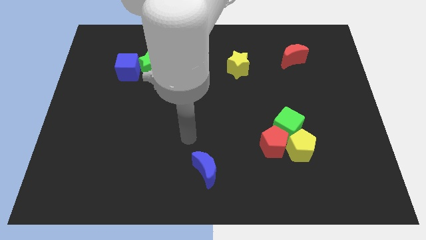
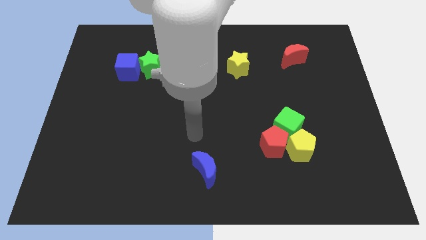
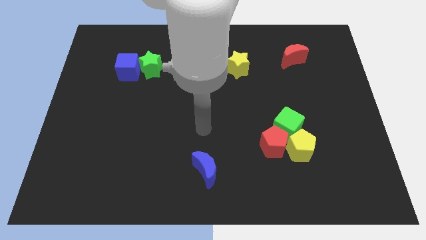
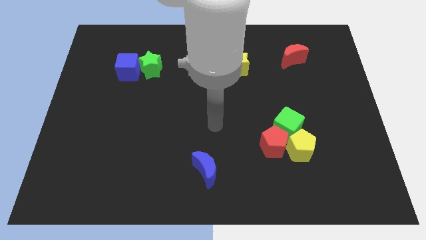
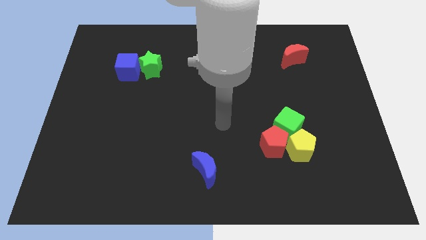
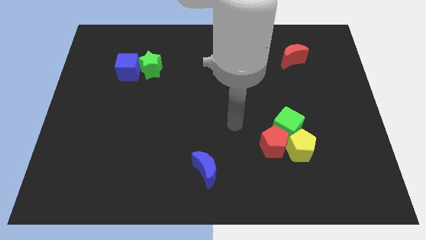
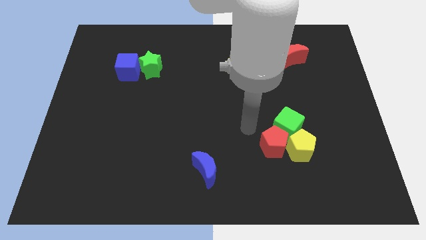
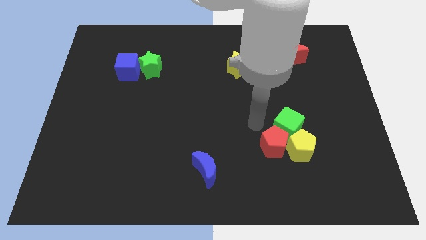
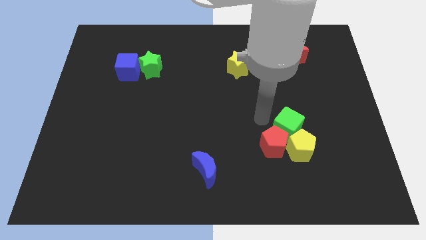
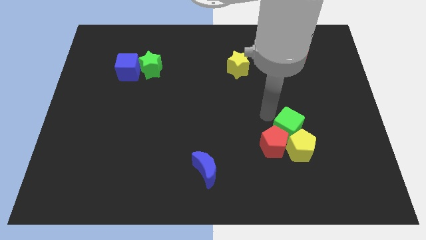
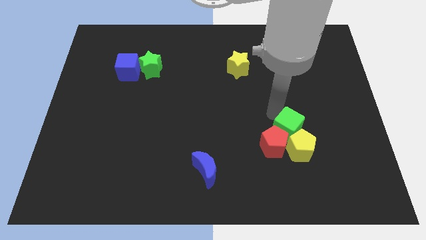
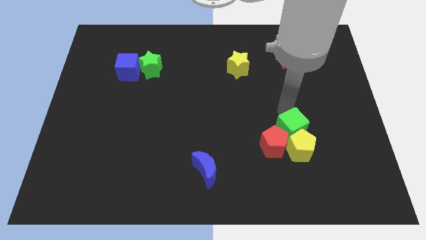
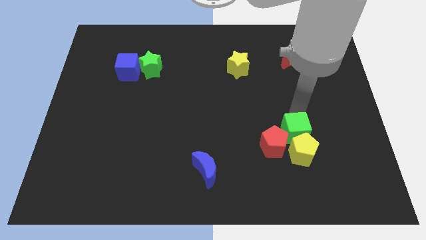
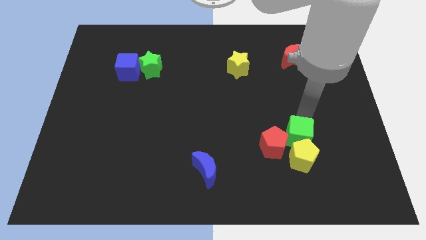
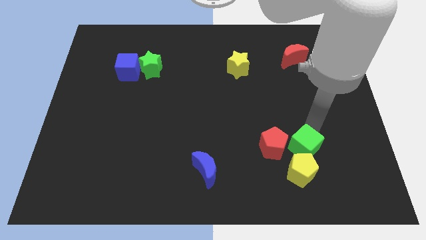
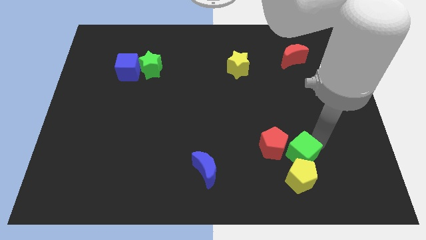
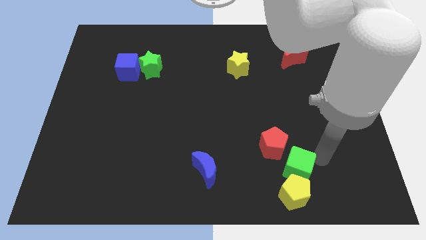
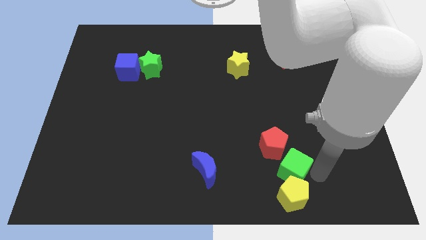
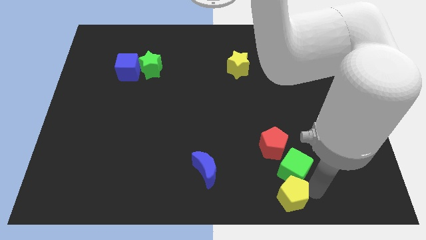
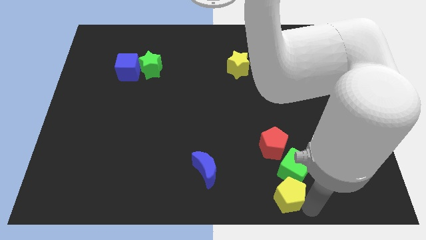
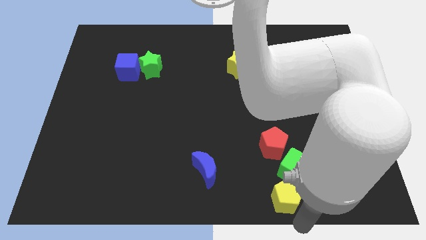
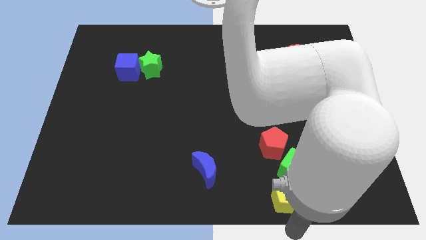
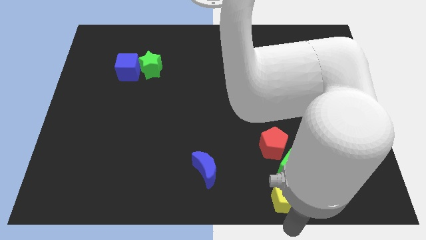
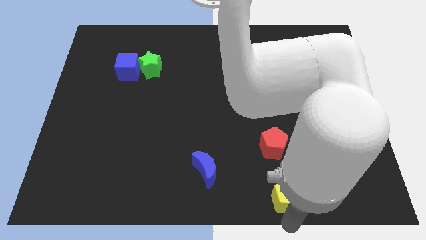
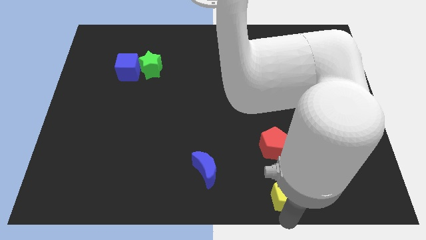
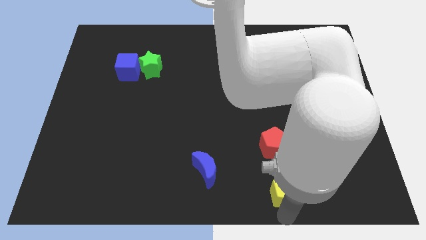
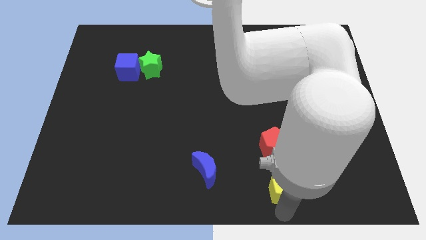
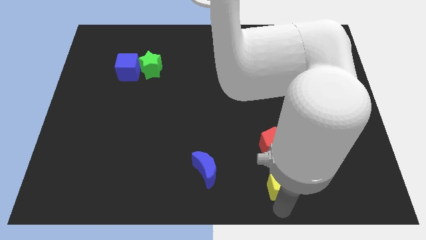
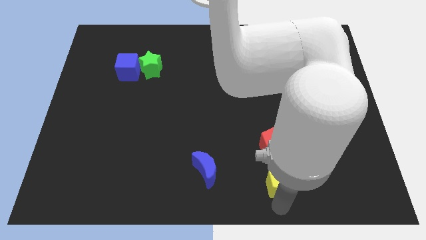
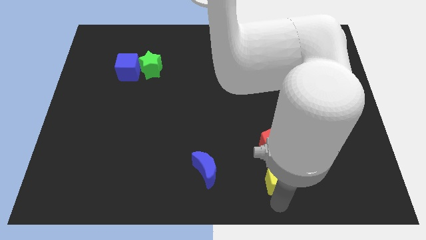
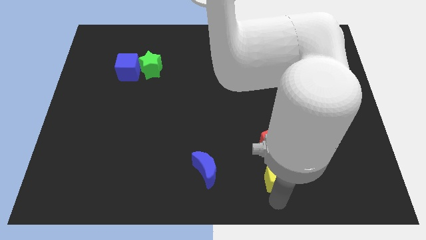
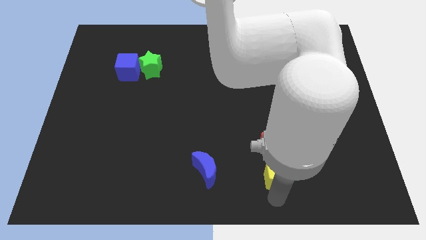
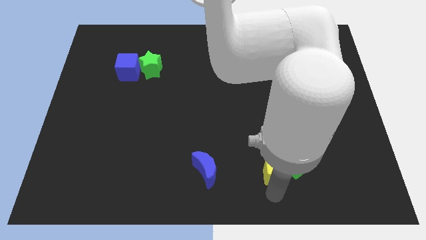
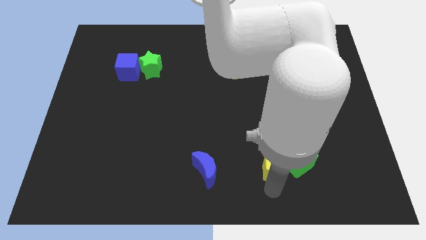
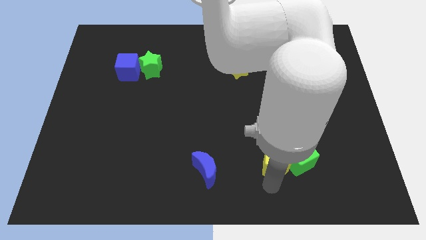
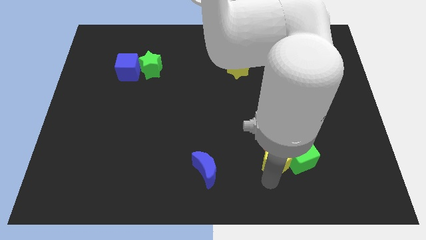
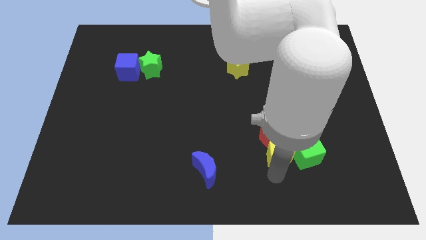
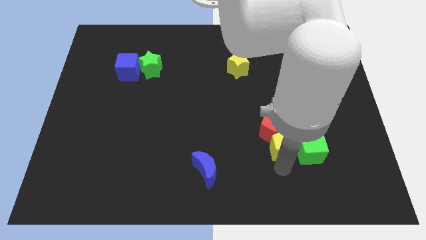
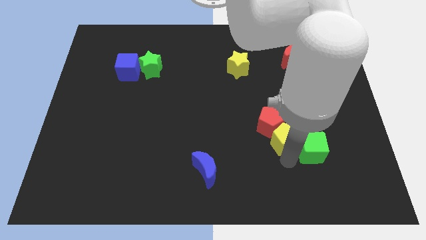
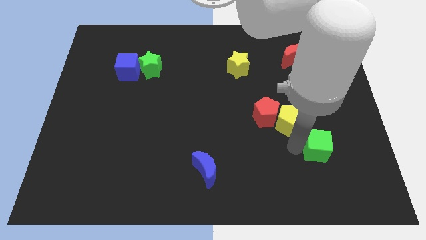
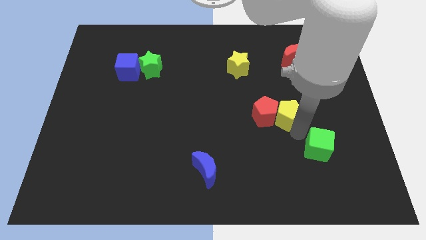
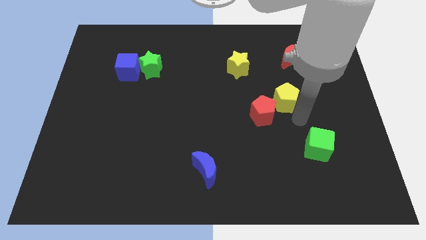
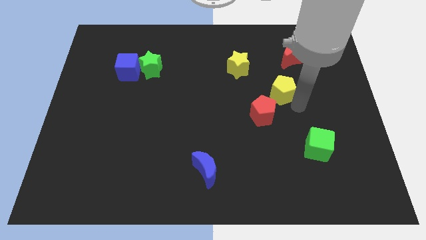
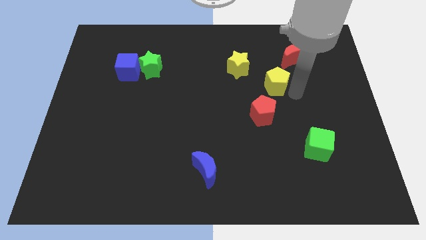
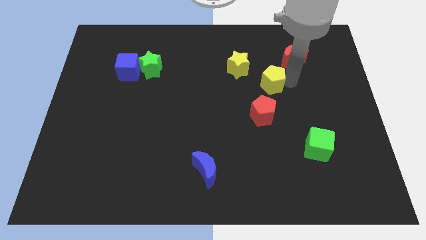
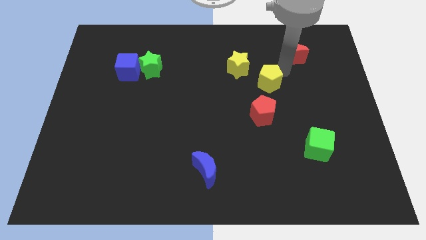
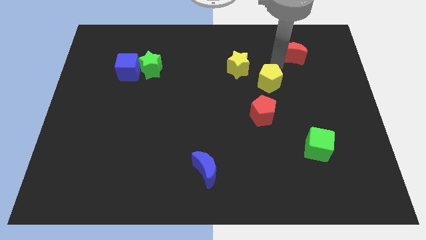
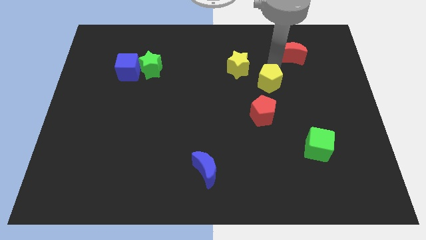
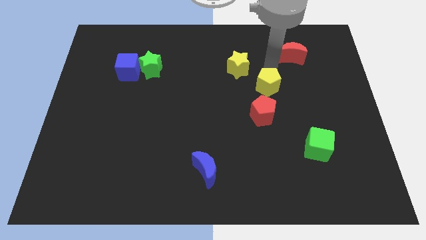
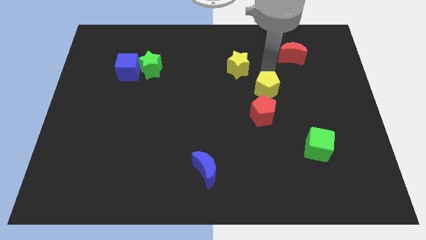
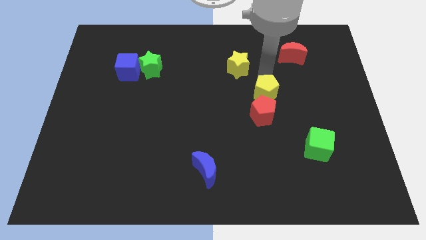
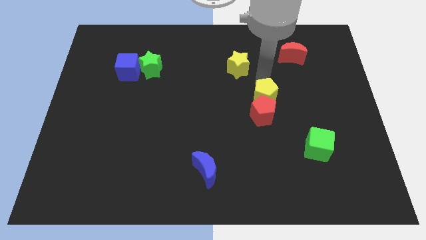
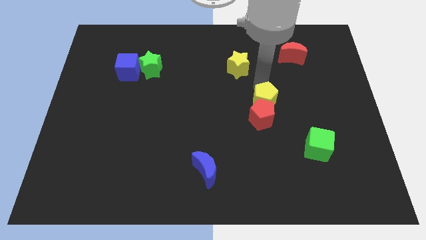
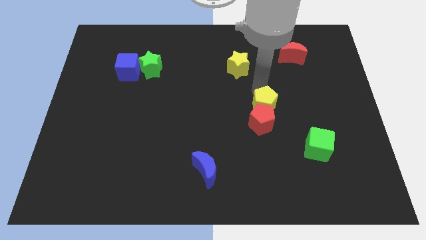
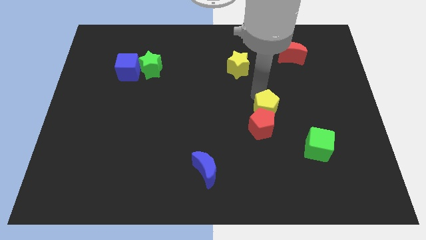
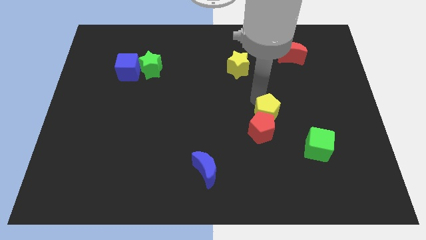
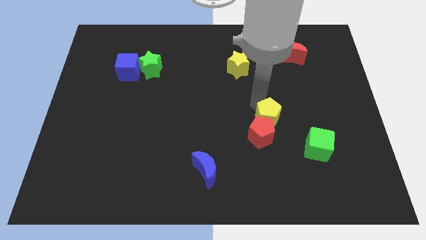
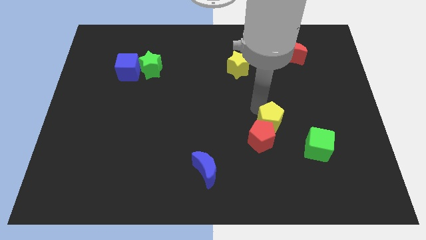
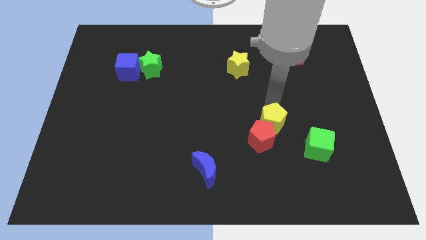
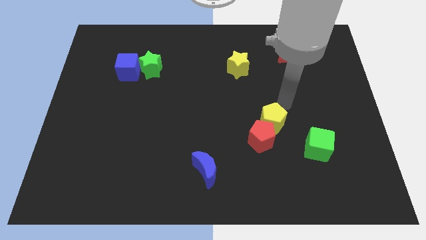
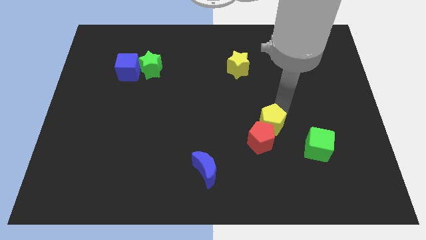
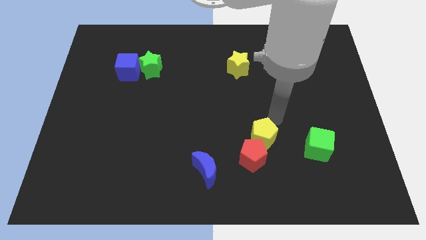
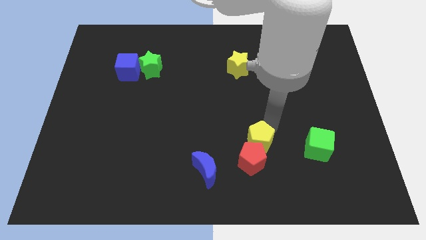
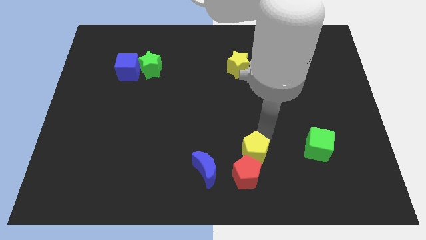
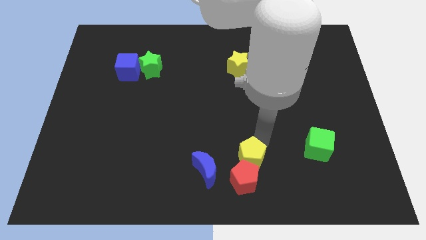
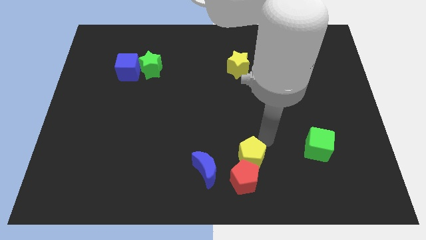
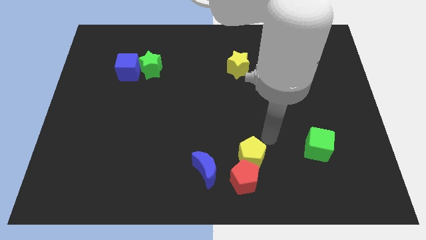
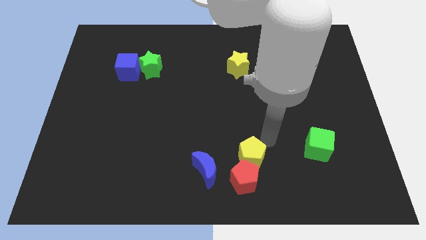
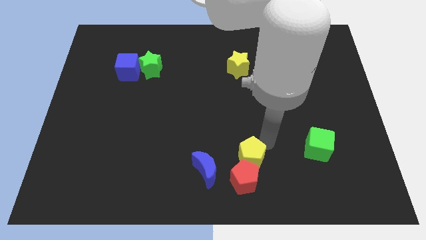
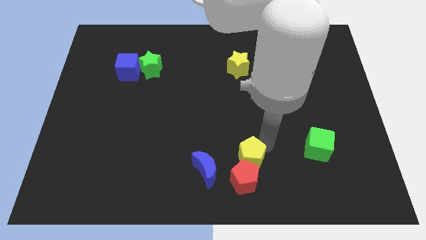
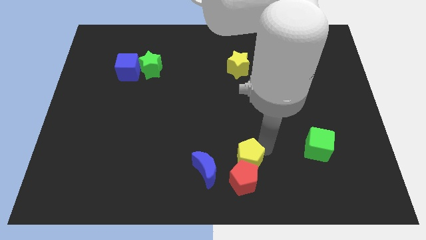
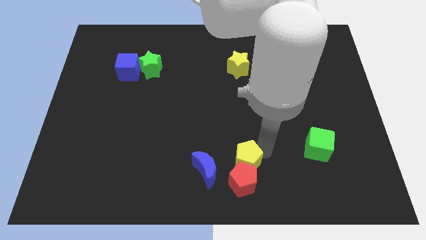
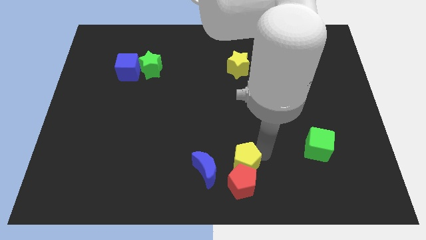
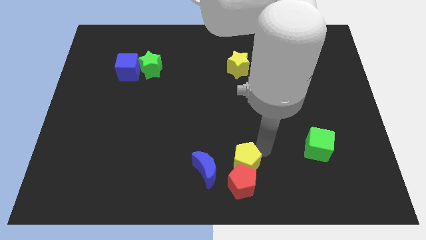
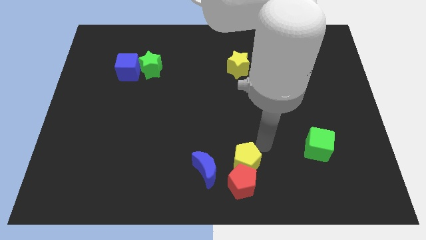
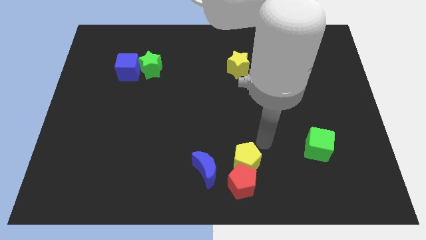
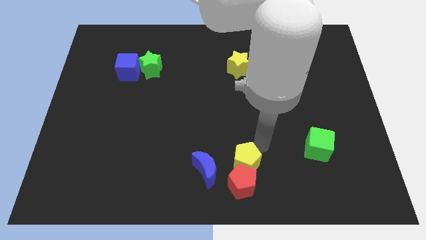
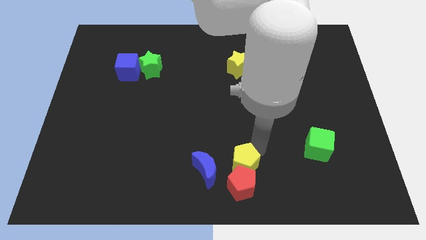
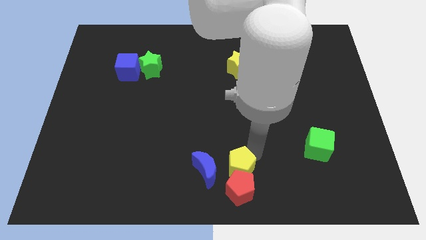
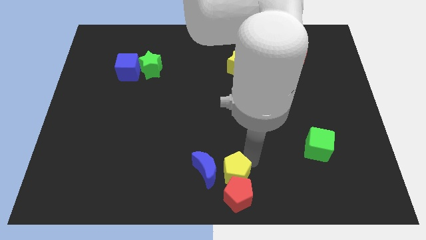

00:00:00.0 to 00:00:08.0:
push the yellow pentagon next to the blue moon
